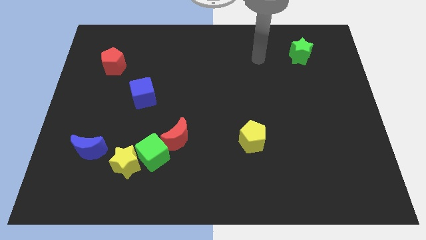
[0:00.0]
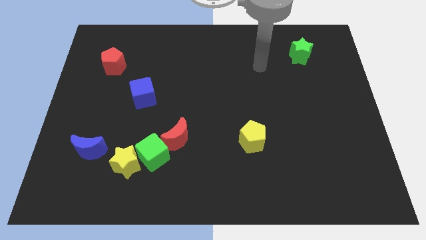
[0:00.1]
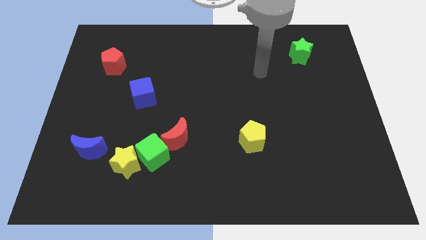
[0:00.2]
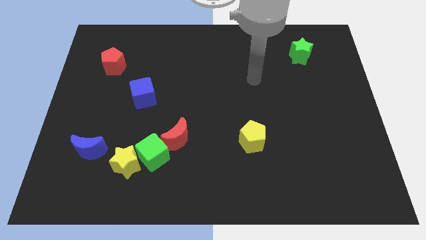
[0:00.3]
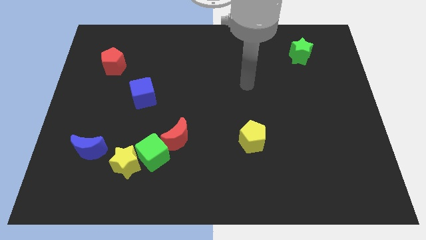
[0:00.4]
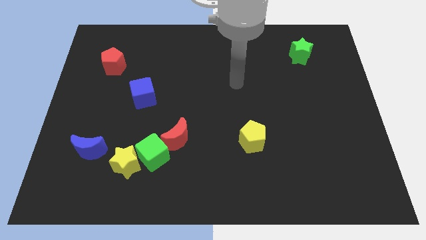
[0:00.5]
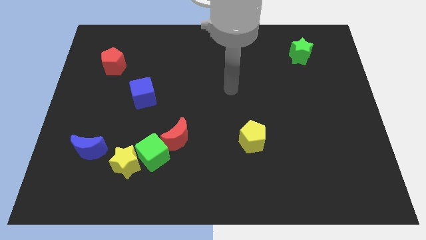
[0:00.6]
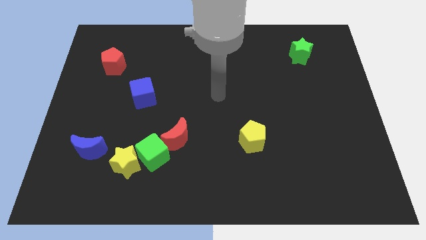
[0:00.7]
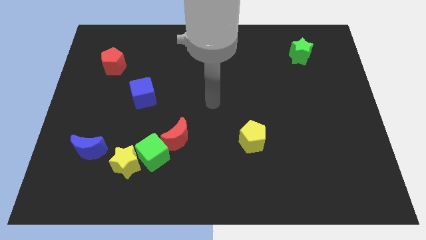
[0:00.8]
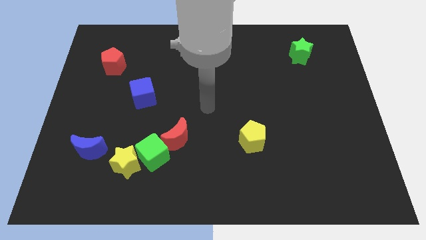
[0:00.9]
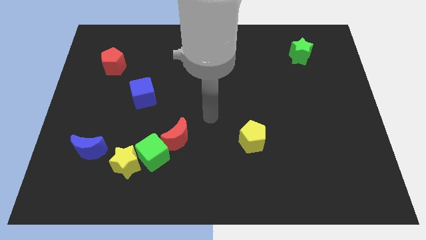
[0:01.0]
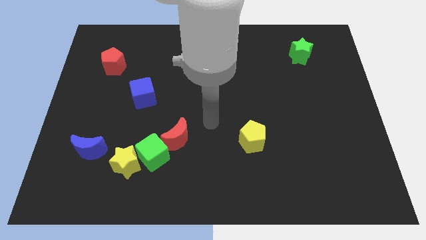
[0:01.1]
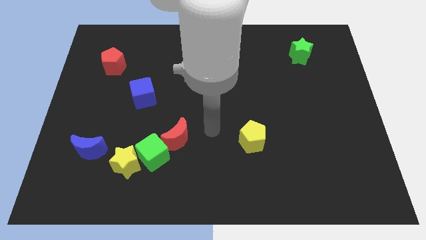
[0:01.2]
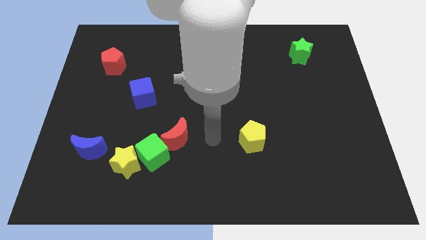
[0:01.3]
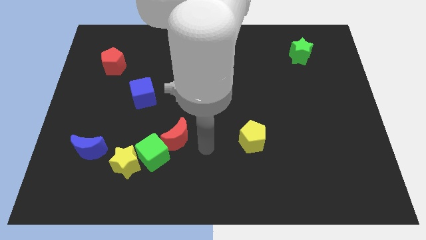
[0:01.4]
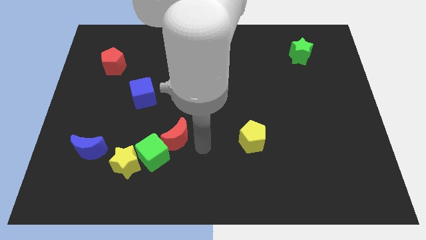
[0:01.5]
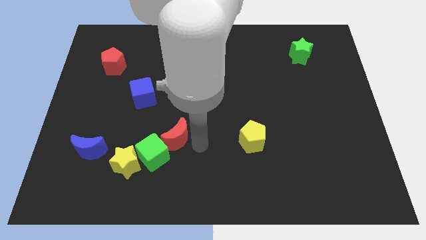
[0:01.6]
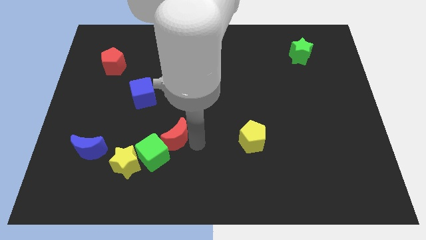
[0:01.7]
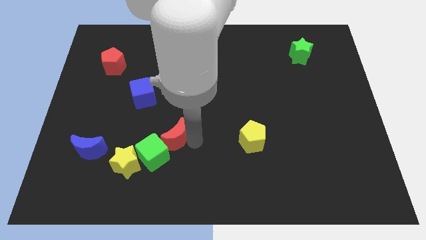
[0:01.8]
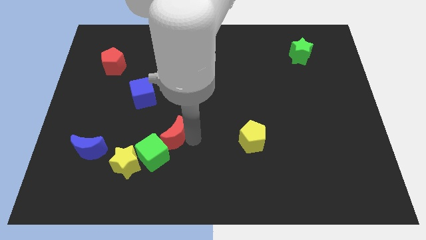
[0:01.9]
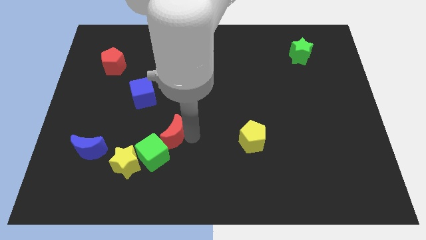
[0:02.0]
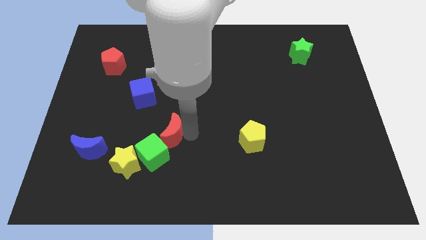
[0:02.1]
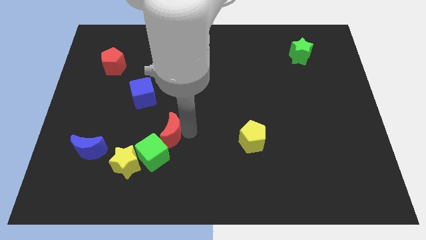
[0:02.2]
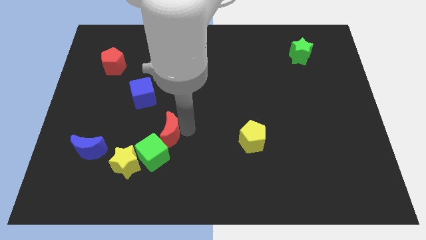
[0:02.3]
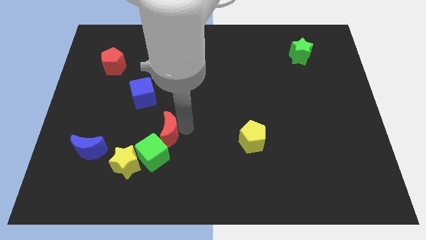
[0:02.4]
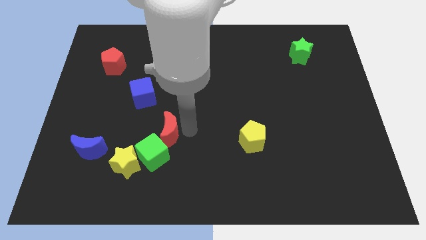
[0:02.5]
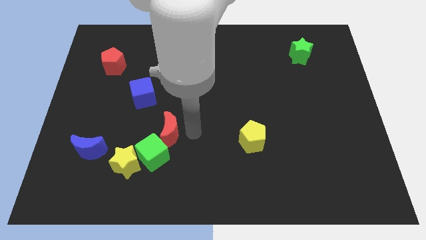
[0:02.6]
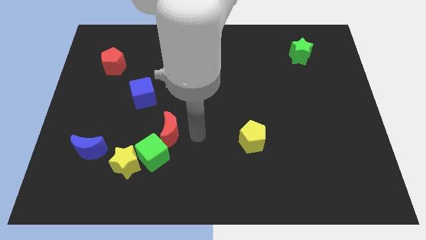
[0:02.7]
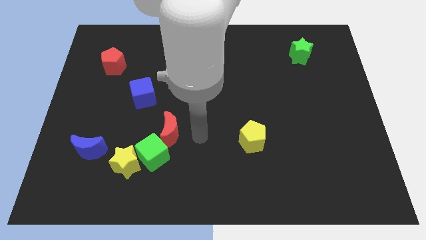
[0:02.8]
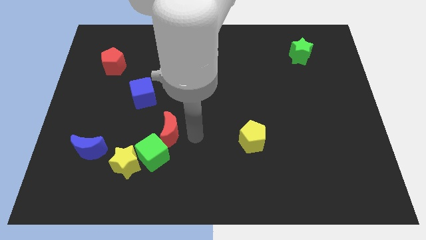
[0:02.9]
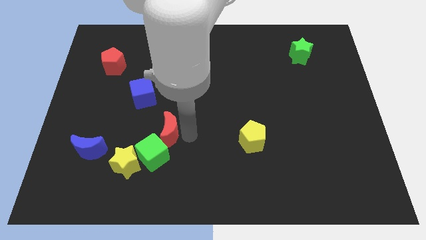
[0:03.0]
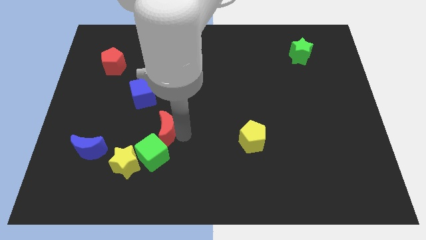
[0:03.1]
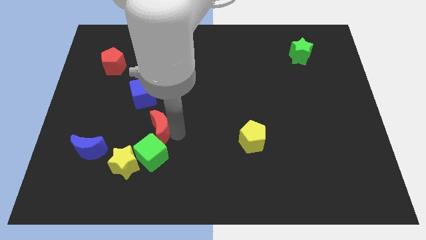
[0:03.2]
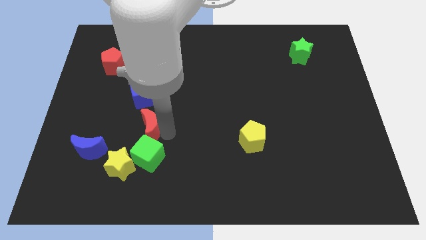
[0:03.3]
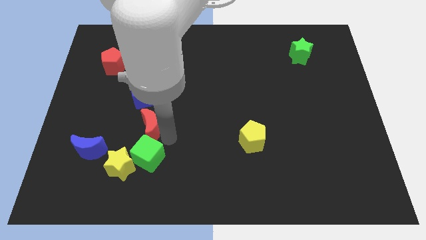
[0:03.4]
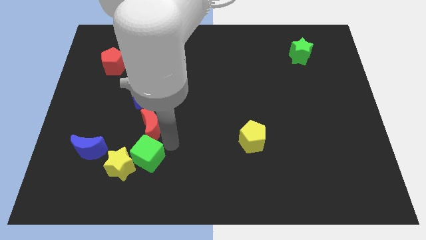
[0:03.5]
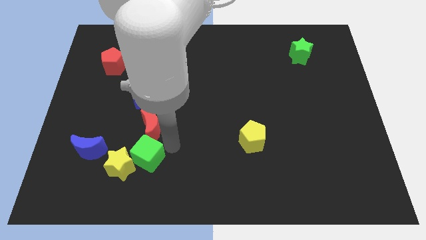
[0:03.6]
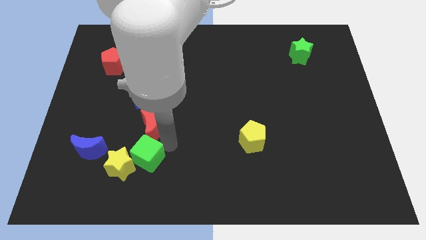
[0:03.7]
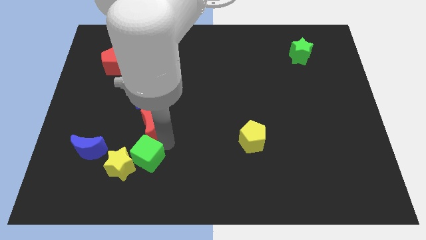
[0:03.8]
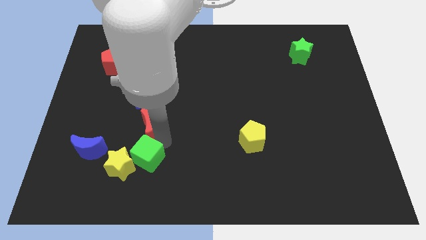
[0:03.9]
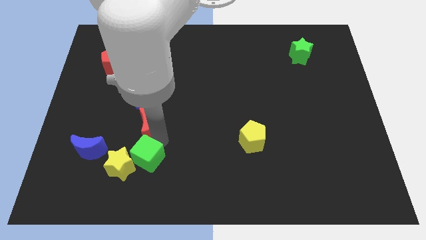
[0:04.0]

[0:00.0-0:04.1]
move the red moon a bit up and then left

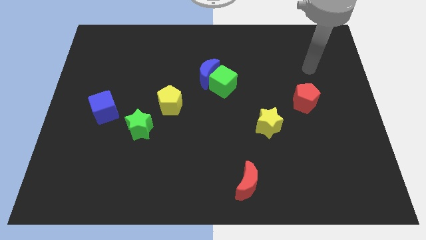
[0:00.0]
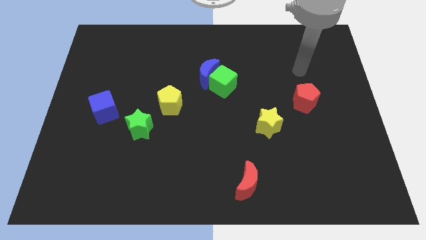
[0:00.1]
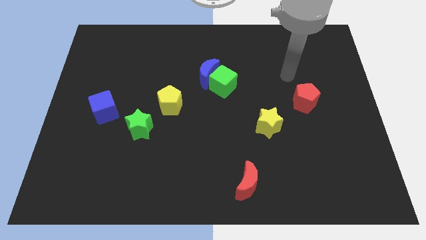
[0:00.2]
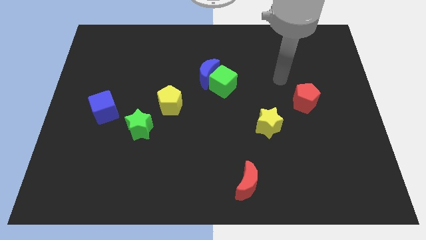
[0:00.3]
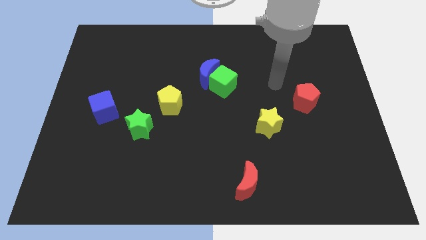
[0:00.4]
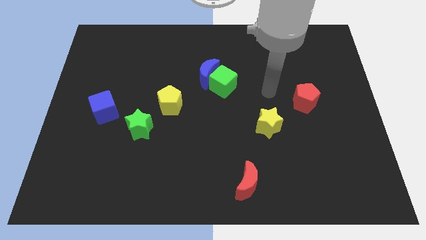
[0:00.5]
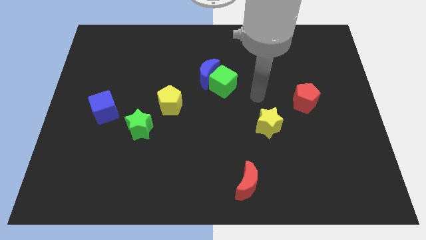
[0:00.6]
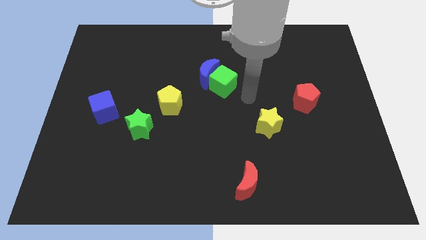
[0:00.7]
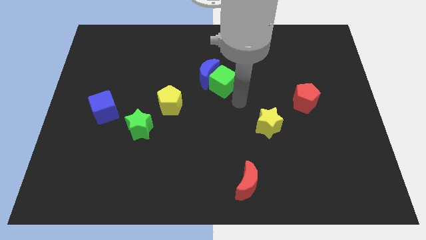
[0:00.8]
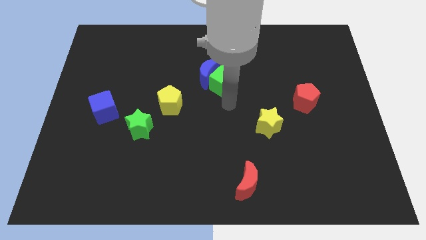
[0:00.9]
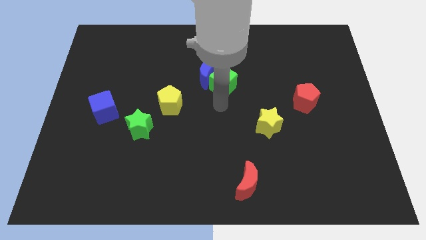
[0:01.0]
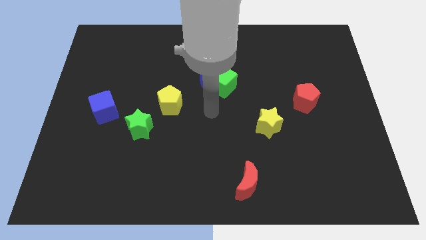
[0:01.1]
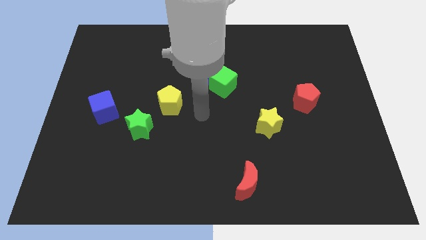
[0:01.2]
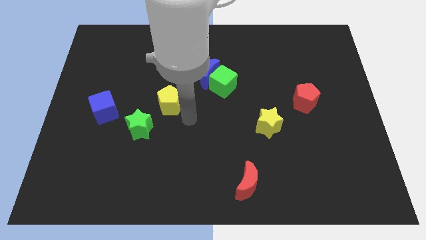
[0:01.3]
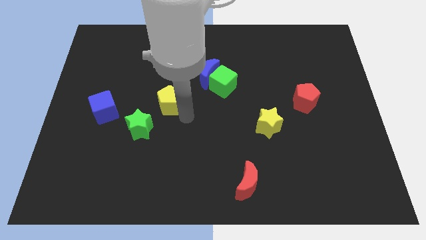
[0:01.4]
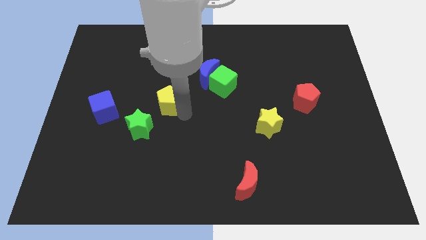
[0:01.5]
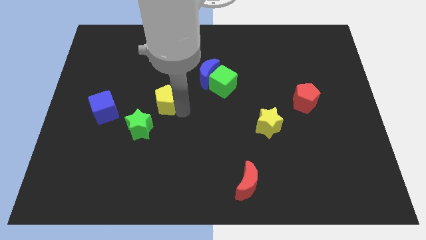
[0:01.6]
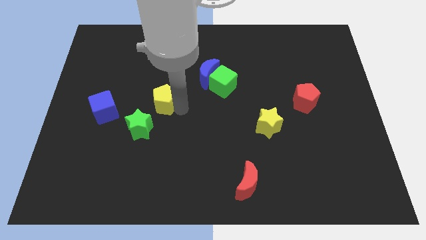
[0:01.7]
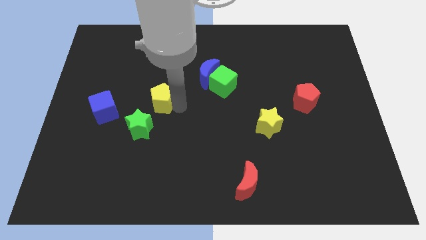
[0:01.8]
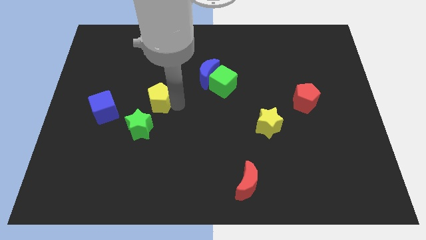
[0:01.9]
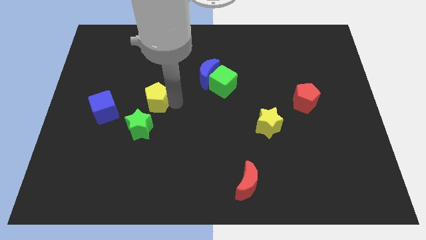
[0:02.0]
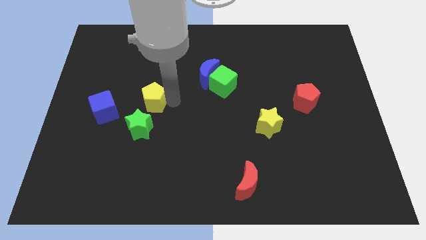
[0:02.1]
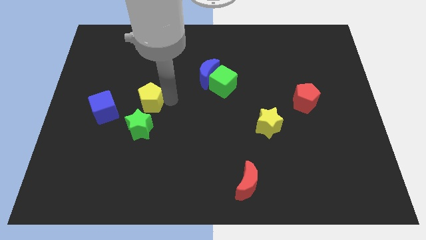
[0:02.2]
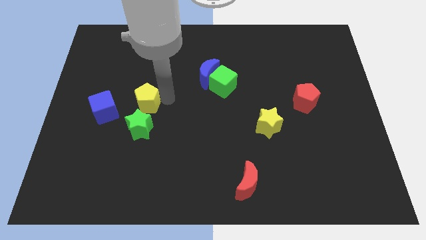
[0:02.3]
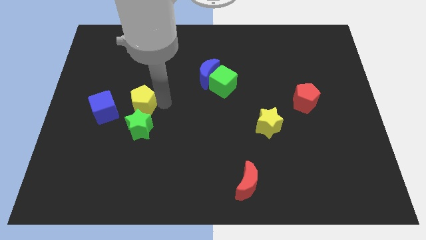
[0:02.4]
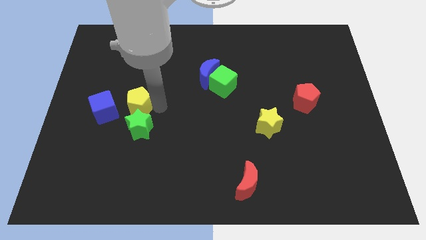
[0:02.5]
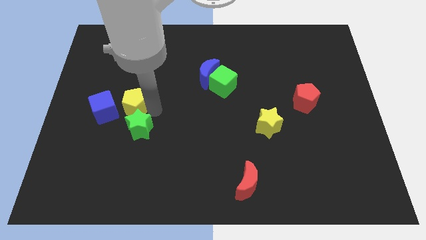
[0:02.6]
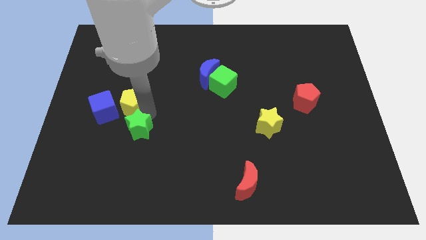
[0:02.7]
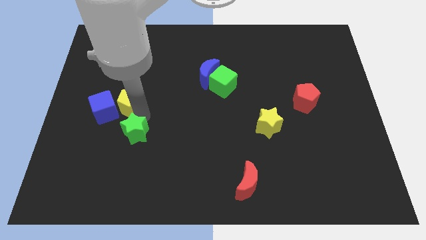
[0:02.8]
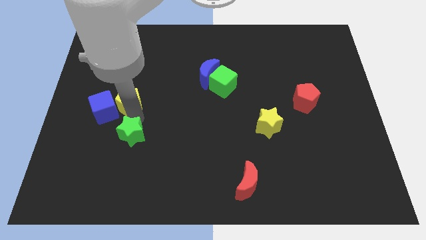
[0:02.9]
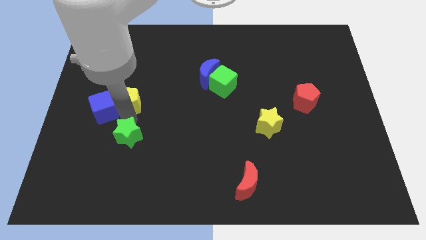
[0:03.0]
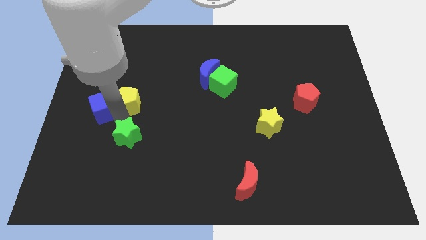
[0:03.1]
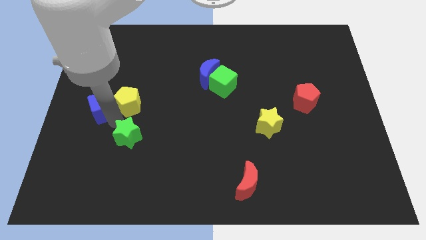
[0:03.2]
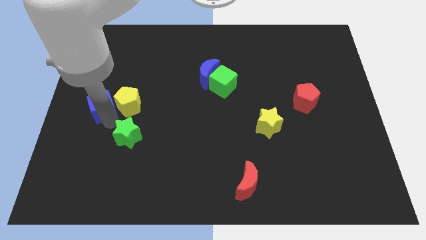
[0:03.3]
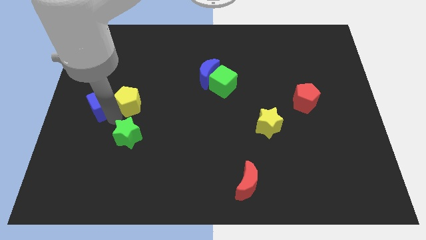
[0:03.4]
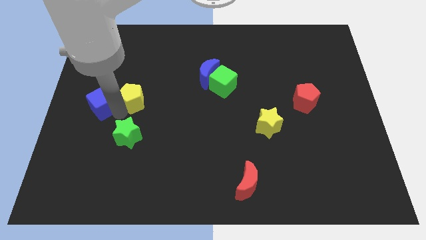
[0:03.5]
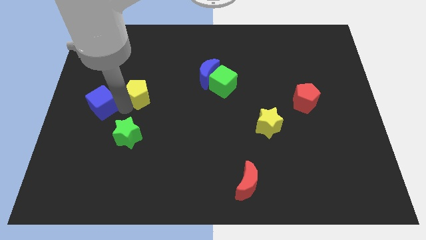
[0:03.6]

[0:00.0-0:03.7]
slightly slide the yellow pentagon upwards and to the left
